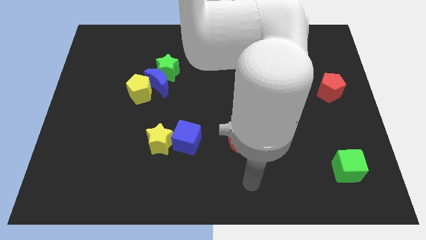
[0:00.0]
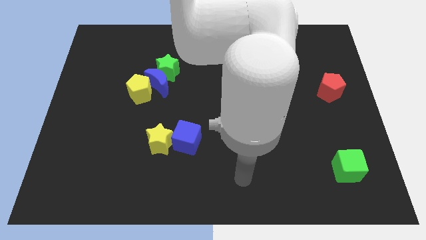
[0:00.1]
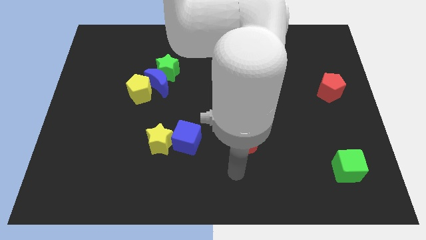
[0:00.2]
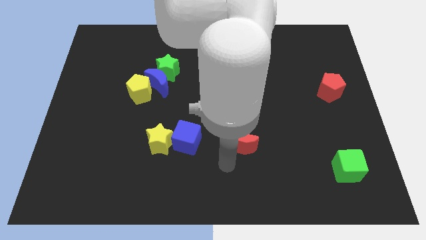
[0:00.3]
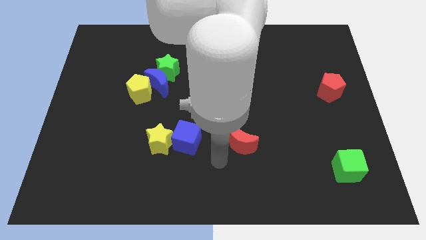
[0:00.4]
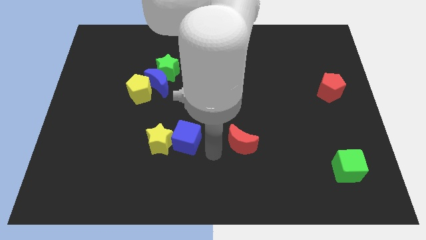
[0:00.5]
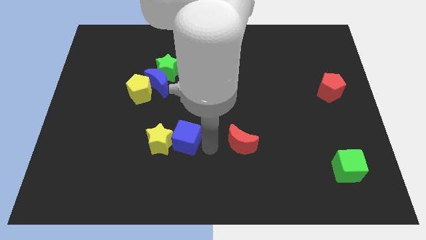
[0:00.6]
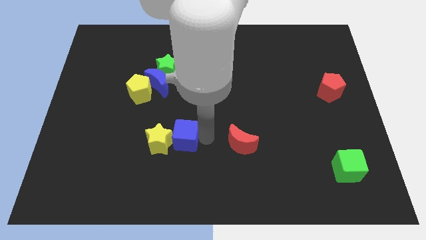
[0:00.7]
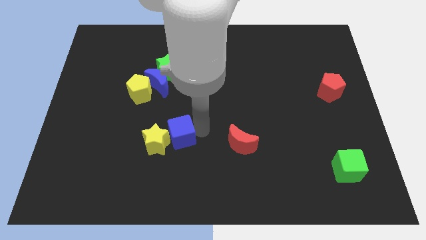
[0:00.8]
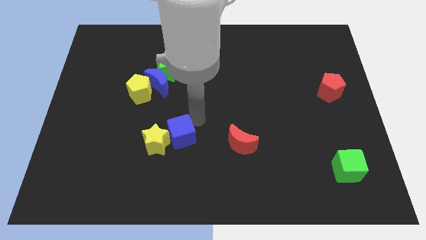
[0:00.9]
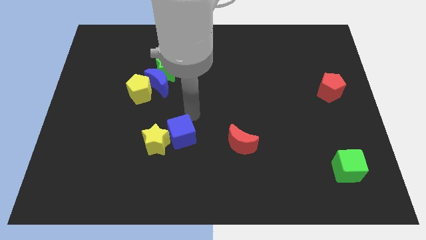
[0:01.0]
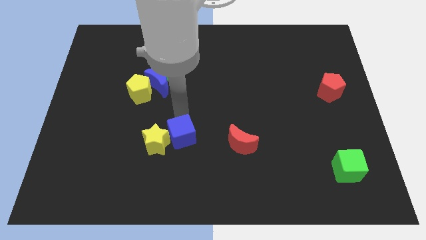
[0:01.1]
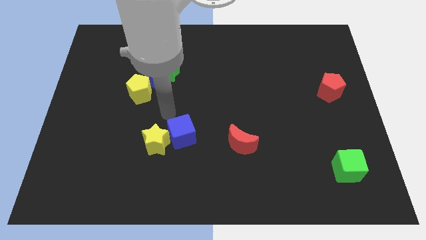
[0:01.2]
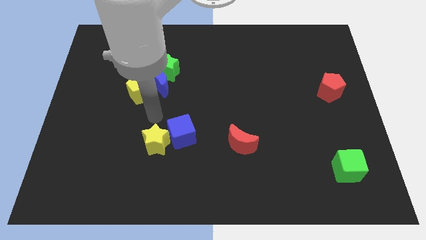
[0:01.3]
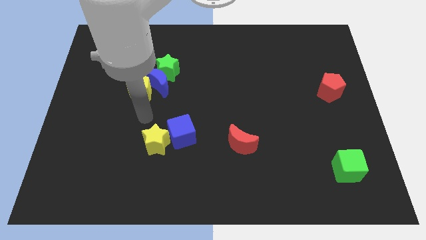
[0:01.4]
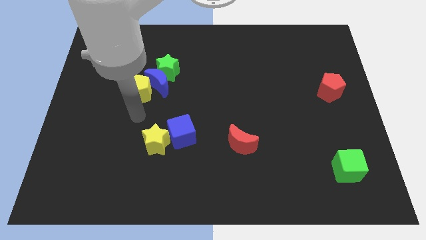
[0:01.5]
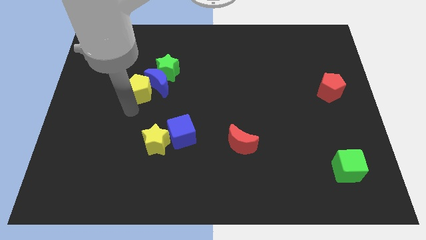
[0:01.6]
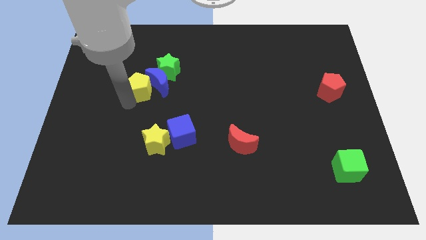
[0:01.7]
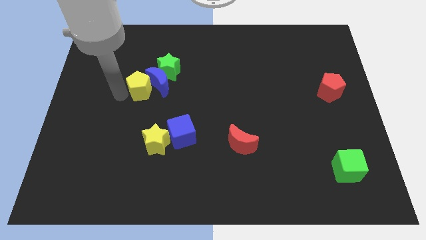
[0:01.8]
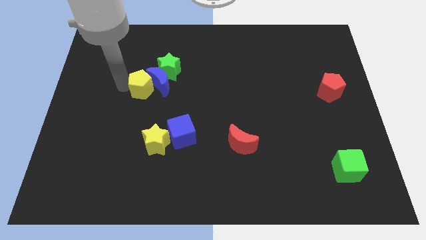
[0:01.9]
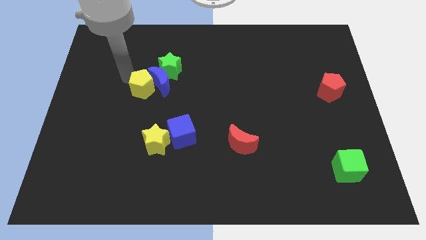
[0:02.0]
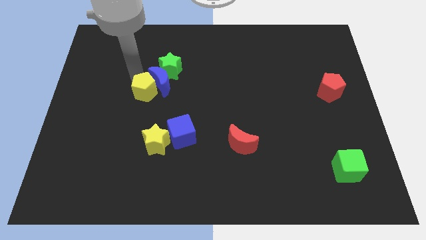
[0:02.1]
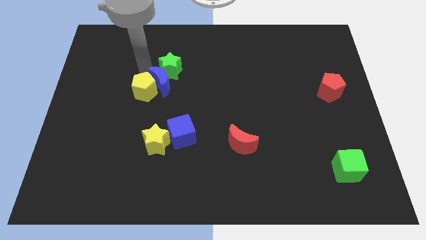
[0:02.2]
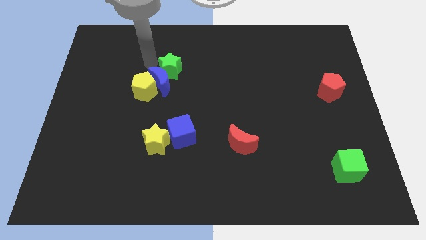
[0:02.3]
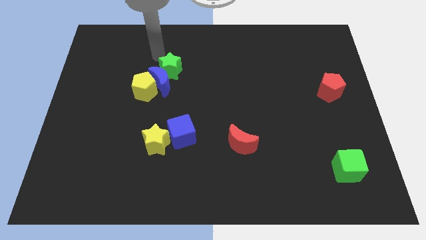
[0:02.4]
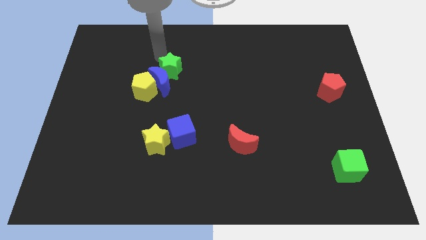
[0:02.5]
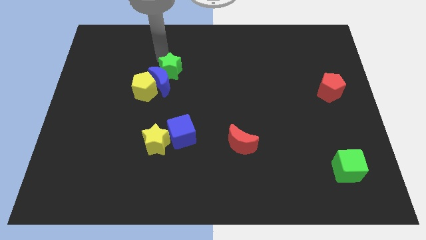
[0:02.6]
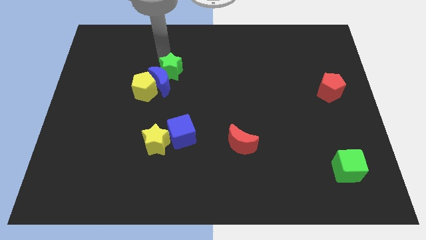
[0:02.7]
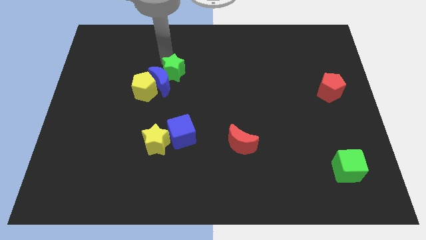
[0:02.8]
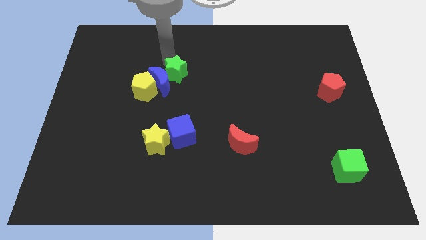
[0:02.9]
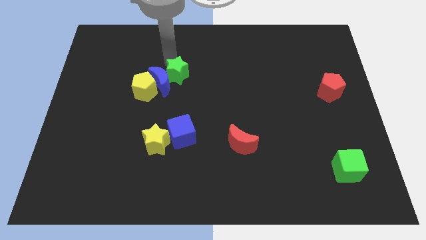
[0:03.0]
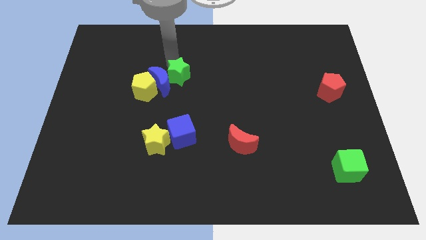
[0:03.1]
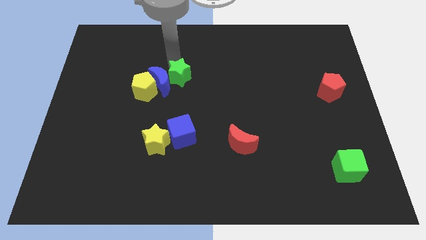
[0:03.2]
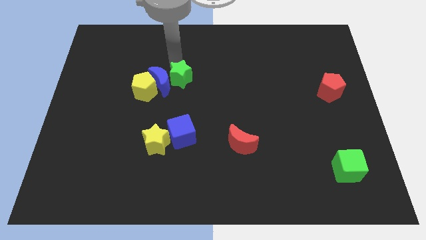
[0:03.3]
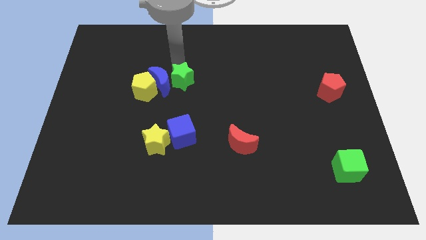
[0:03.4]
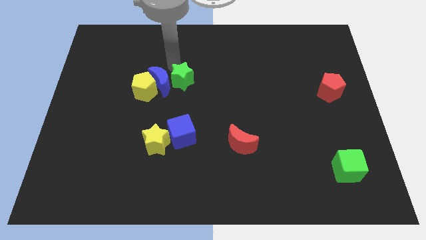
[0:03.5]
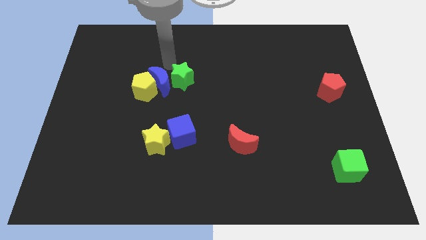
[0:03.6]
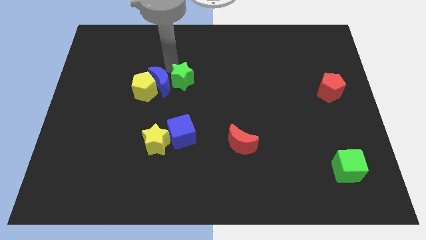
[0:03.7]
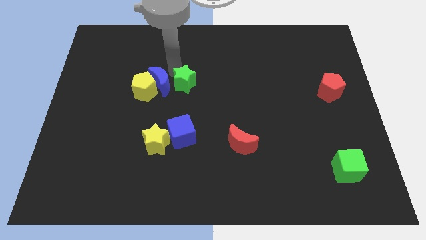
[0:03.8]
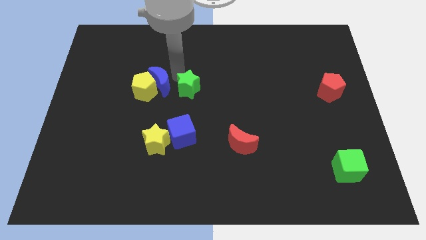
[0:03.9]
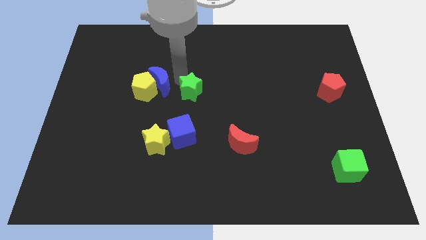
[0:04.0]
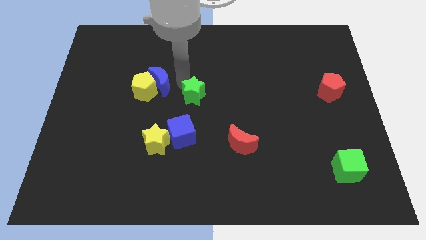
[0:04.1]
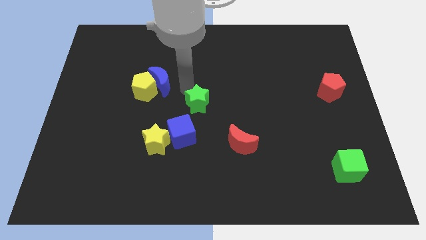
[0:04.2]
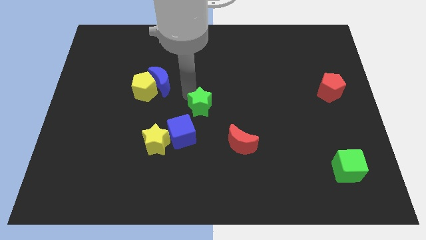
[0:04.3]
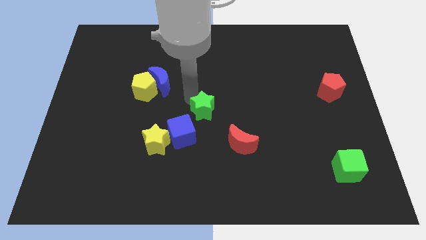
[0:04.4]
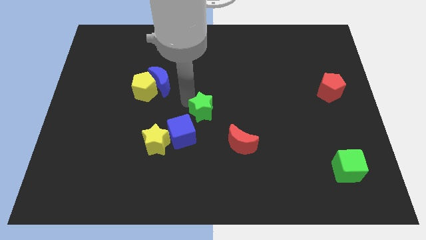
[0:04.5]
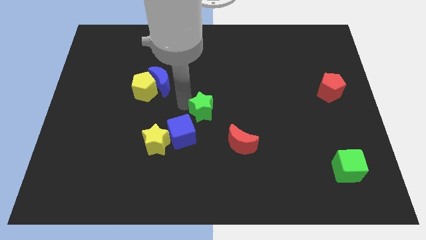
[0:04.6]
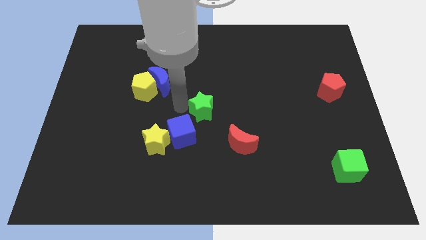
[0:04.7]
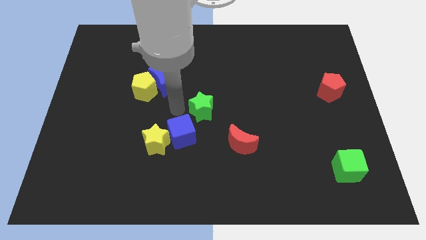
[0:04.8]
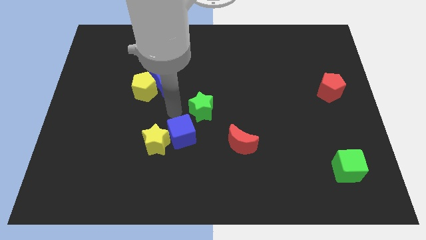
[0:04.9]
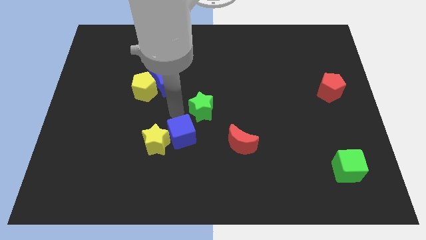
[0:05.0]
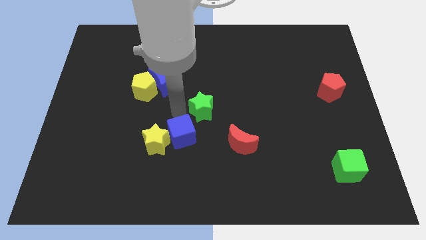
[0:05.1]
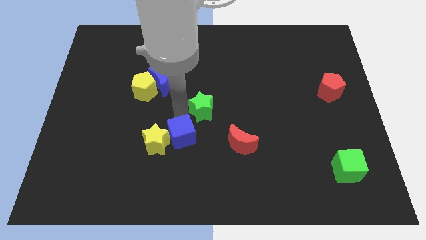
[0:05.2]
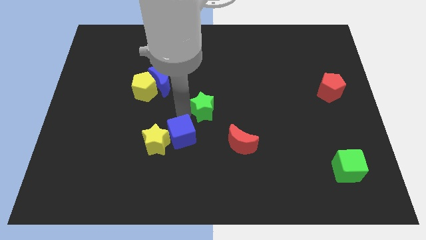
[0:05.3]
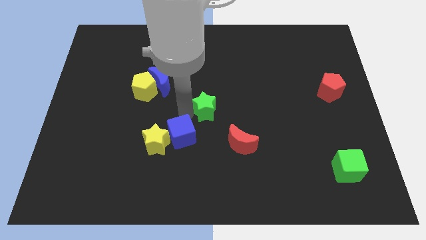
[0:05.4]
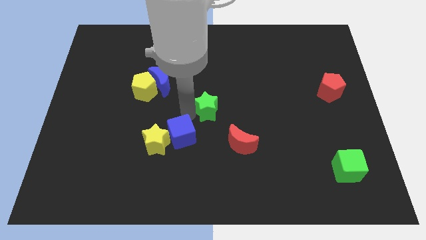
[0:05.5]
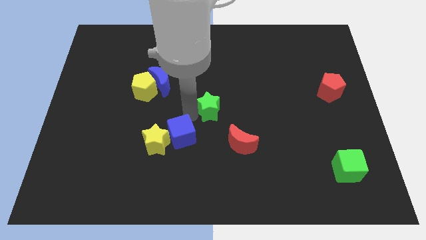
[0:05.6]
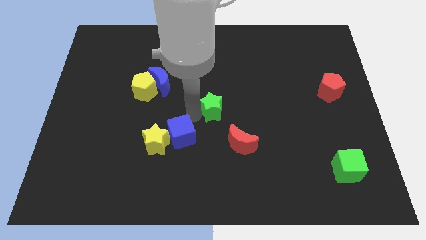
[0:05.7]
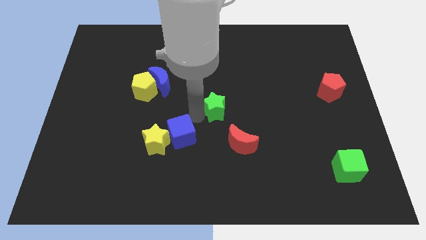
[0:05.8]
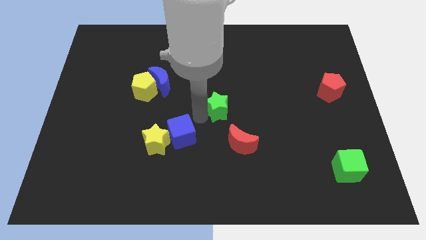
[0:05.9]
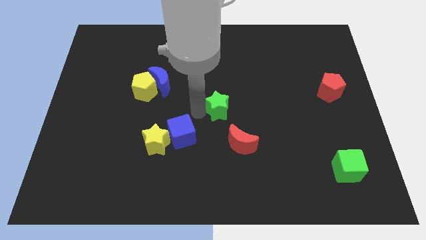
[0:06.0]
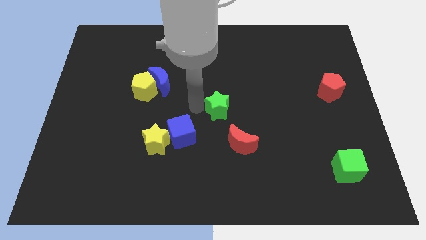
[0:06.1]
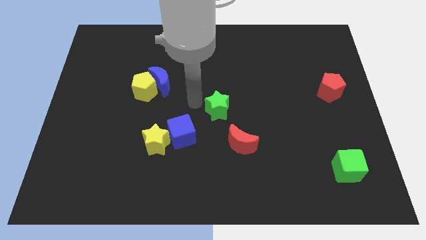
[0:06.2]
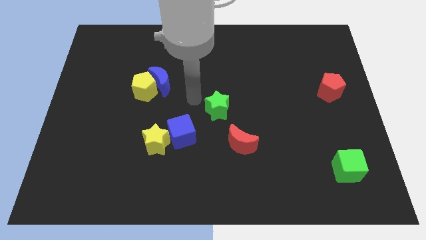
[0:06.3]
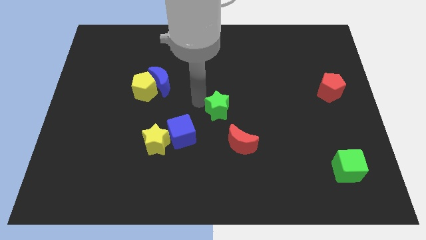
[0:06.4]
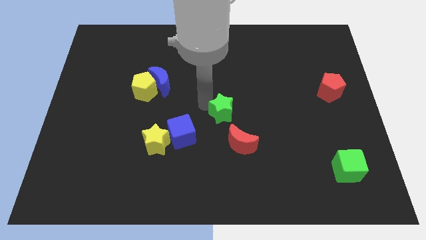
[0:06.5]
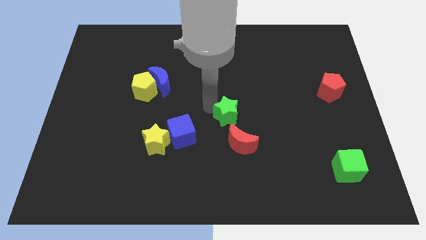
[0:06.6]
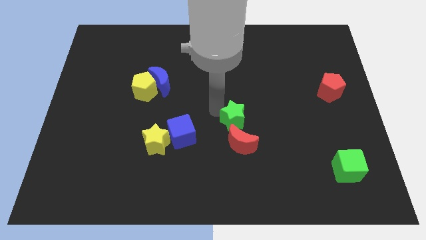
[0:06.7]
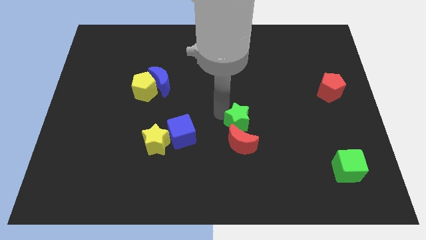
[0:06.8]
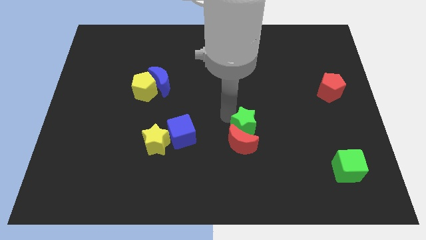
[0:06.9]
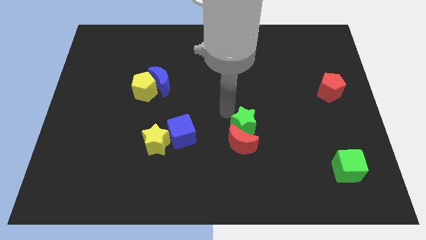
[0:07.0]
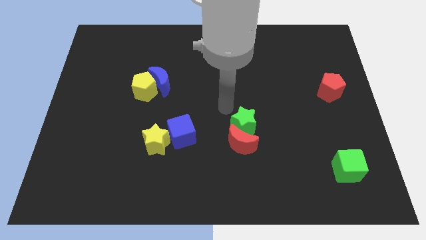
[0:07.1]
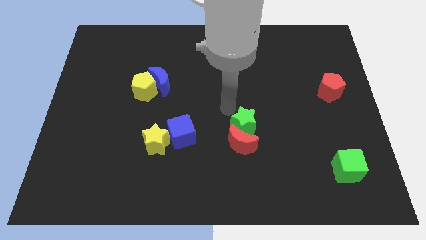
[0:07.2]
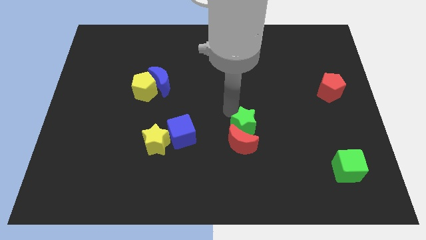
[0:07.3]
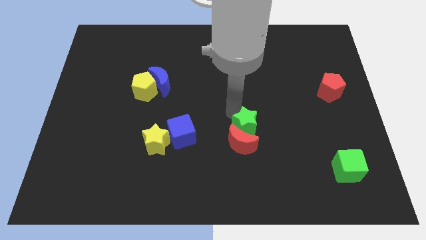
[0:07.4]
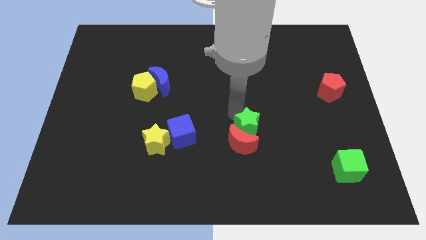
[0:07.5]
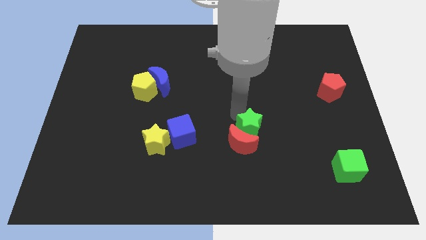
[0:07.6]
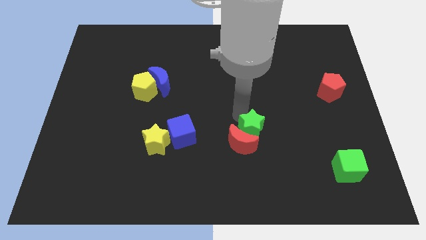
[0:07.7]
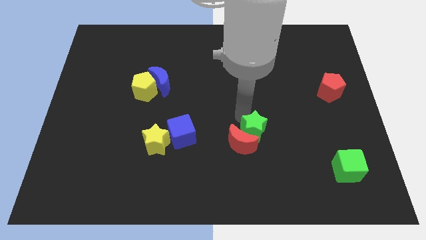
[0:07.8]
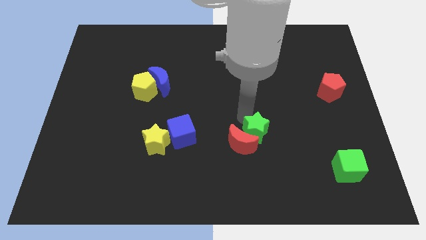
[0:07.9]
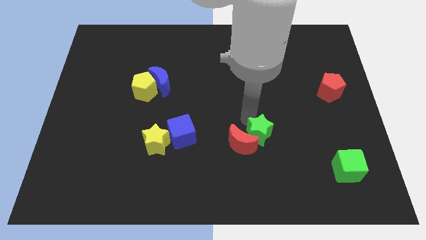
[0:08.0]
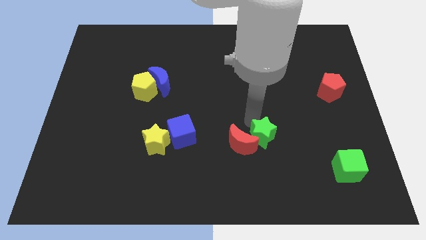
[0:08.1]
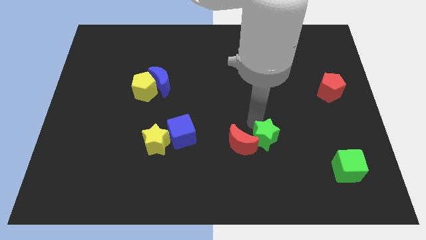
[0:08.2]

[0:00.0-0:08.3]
put the green star to the bottom right of the red moon
